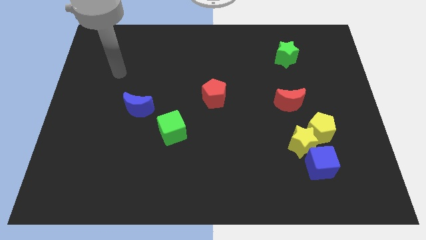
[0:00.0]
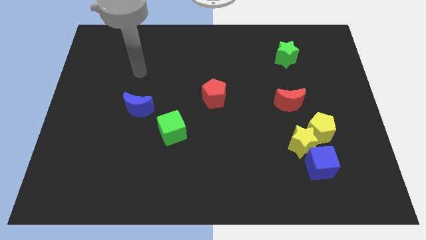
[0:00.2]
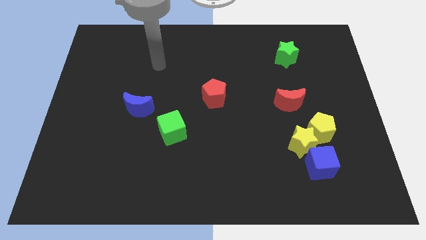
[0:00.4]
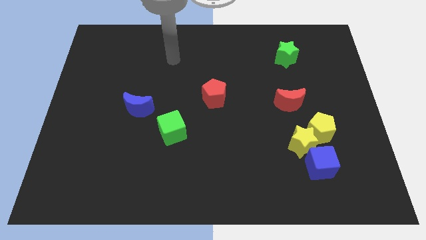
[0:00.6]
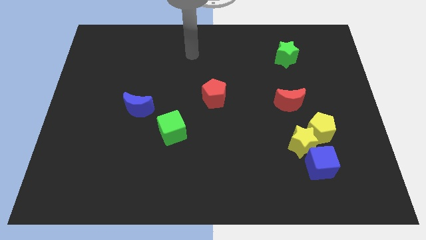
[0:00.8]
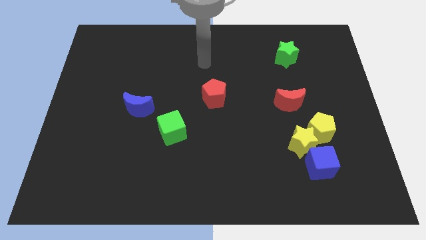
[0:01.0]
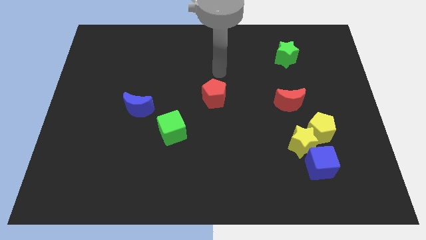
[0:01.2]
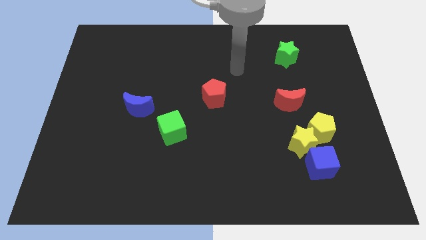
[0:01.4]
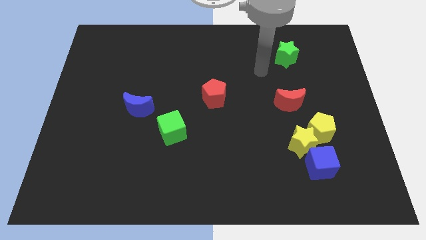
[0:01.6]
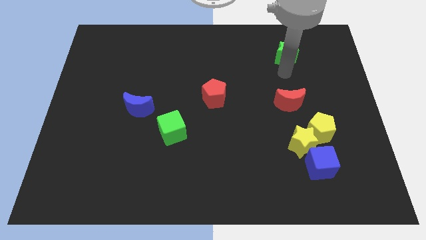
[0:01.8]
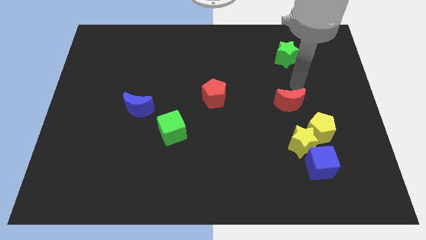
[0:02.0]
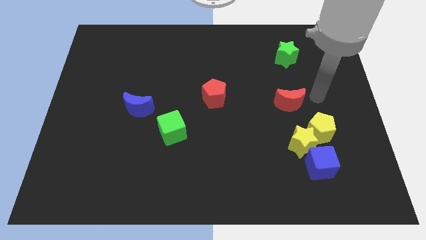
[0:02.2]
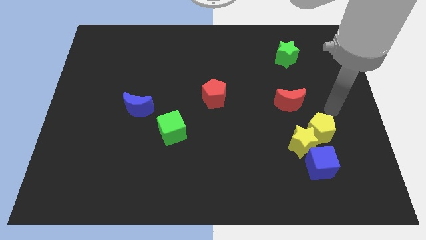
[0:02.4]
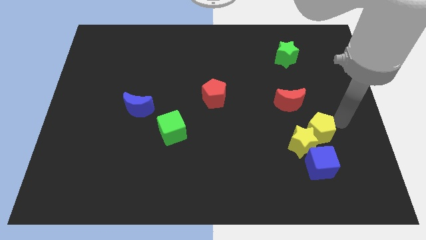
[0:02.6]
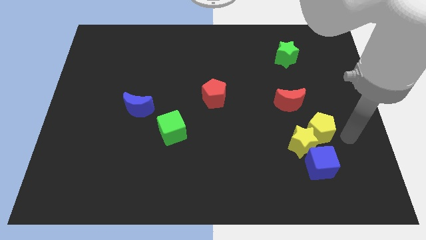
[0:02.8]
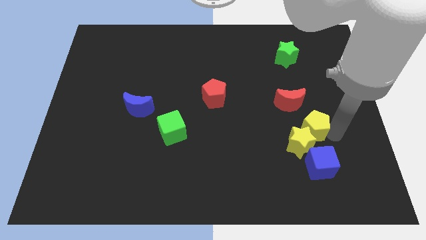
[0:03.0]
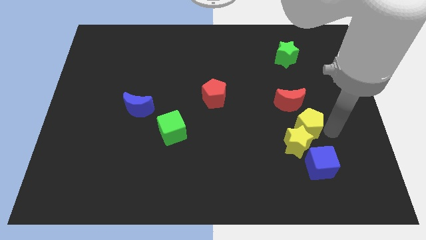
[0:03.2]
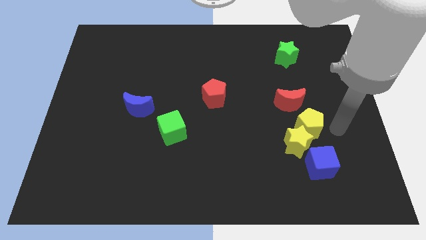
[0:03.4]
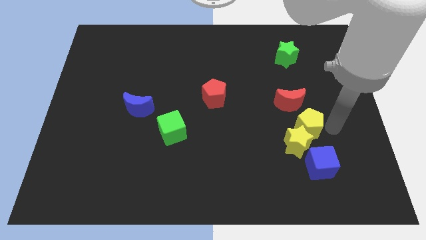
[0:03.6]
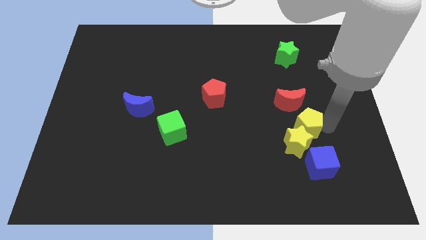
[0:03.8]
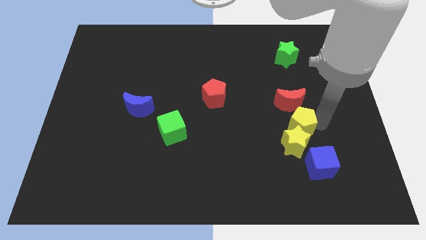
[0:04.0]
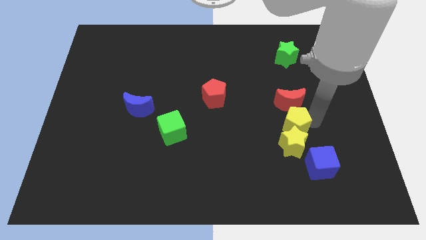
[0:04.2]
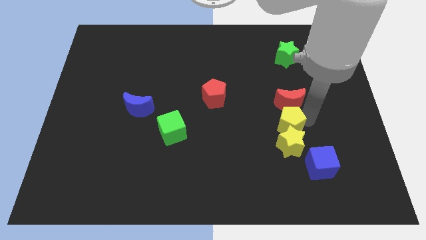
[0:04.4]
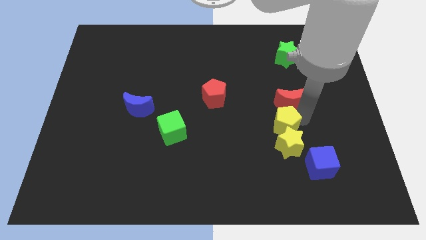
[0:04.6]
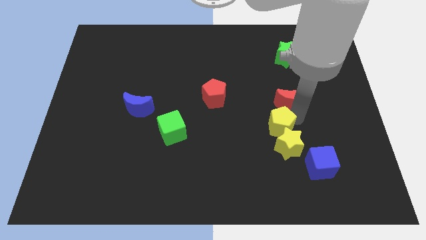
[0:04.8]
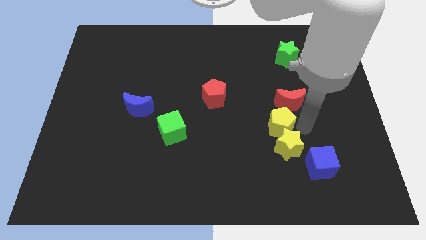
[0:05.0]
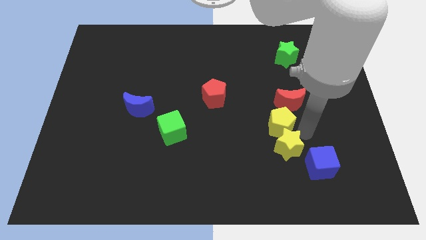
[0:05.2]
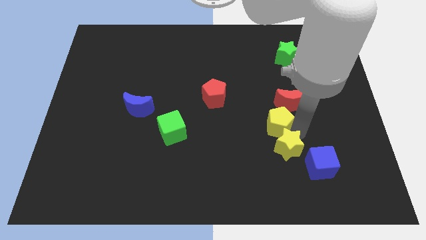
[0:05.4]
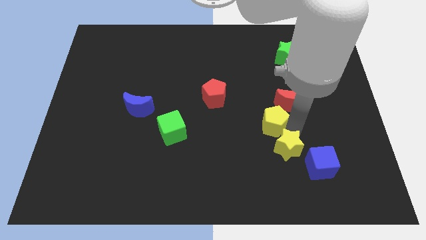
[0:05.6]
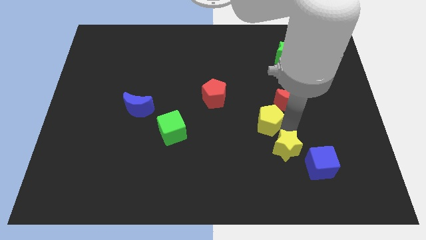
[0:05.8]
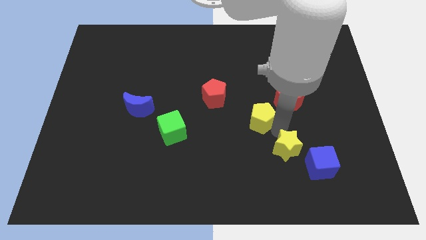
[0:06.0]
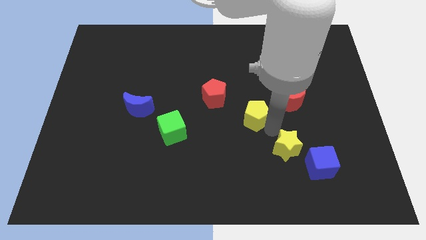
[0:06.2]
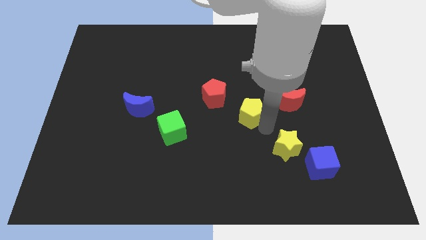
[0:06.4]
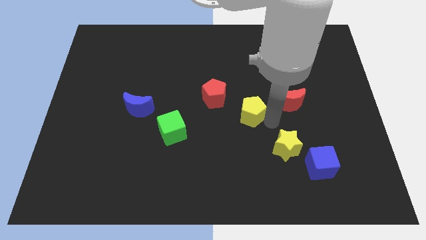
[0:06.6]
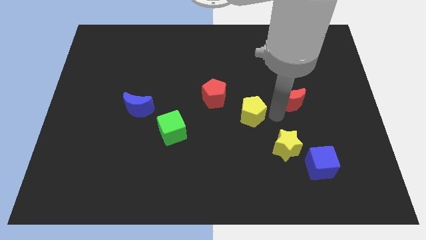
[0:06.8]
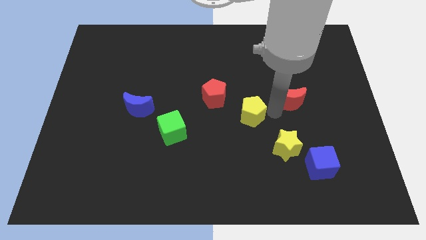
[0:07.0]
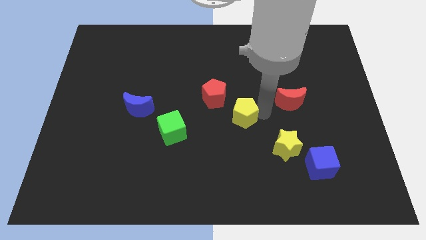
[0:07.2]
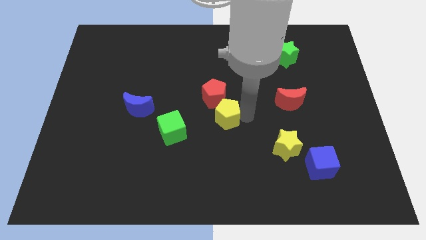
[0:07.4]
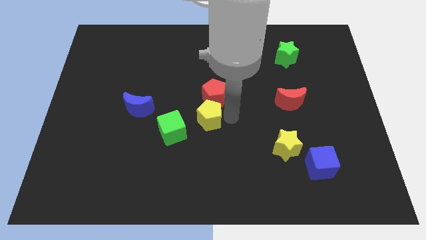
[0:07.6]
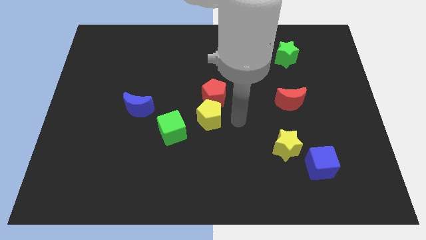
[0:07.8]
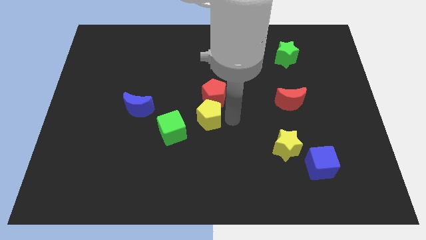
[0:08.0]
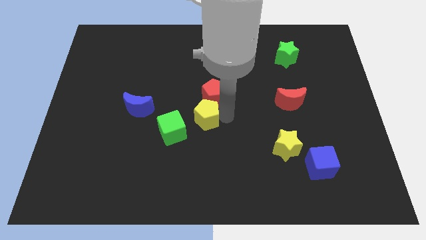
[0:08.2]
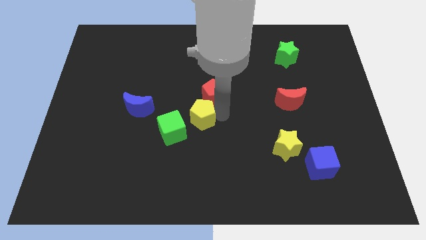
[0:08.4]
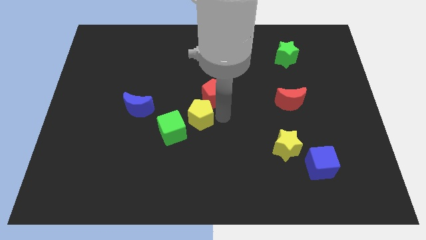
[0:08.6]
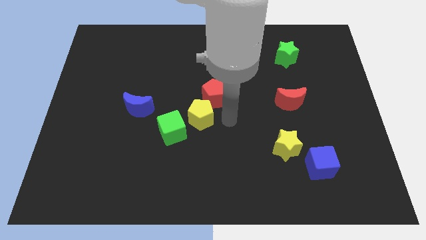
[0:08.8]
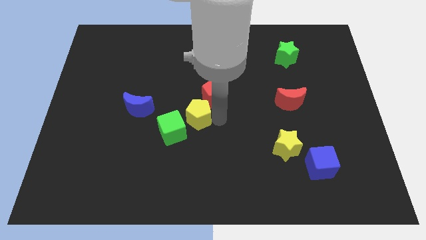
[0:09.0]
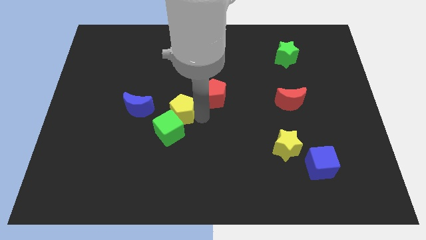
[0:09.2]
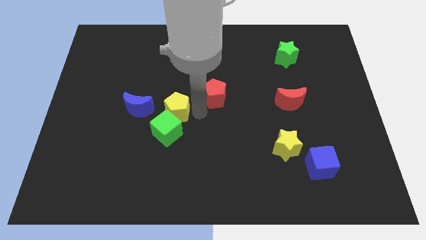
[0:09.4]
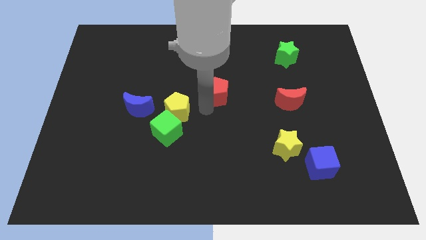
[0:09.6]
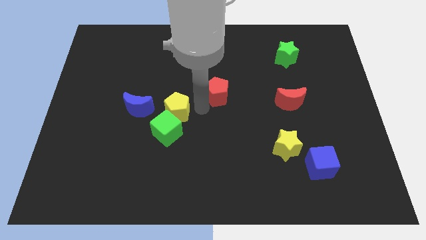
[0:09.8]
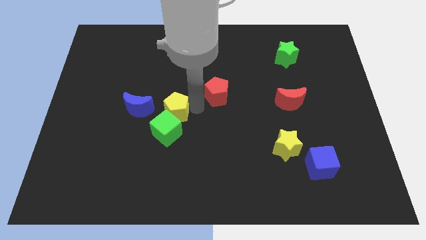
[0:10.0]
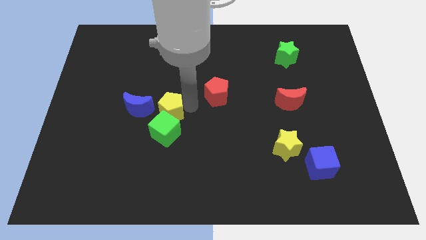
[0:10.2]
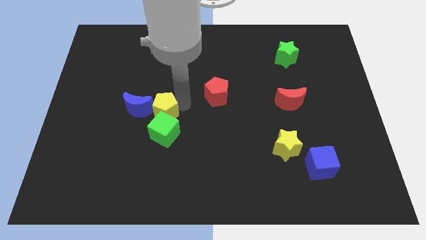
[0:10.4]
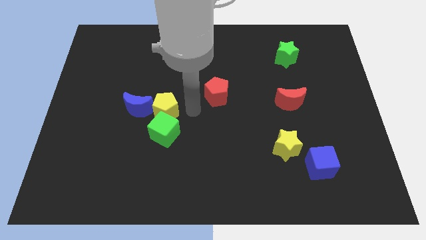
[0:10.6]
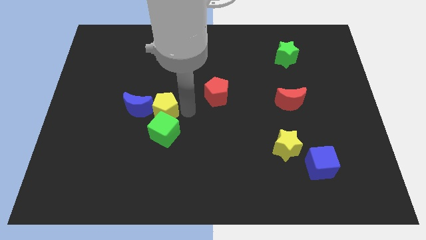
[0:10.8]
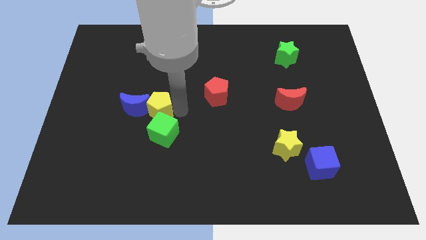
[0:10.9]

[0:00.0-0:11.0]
move the yellow pentagon close to the blue moon
